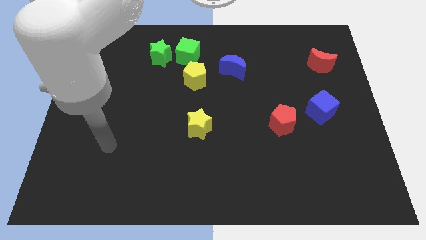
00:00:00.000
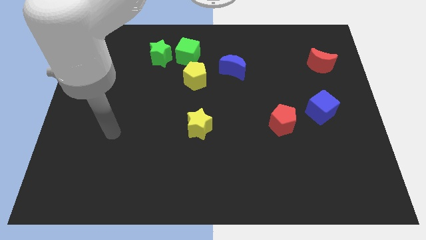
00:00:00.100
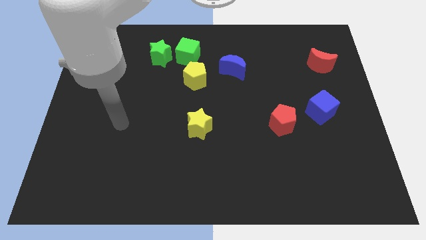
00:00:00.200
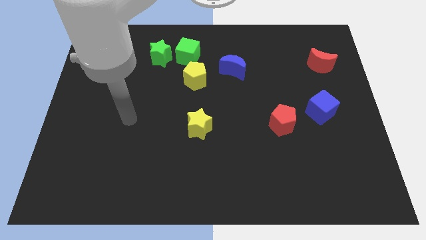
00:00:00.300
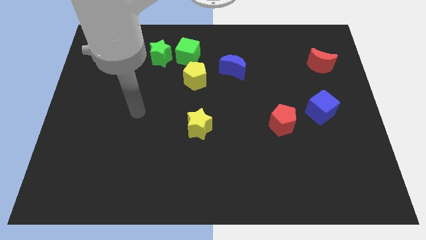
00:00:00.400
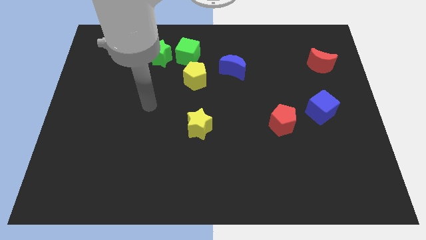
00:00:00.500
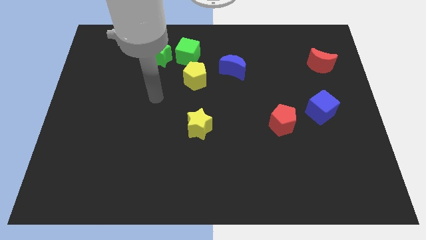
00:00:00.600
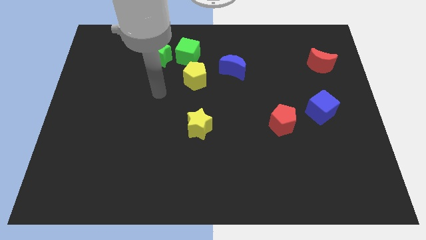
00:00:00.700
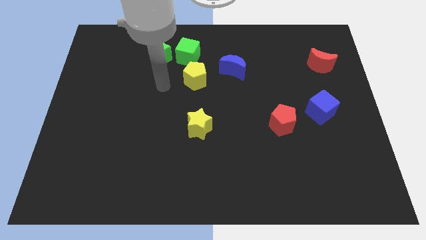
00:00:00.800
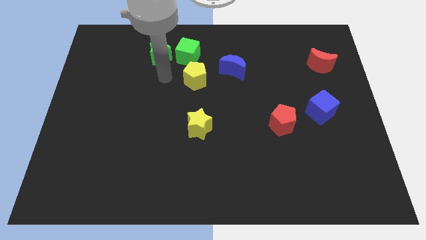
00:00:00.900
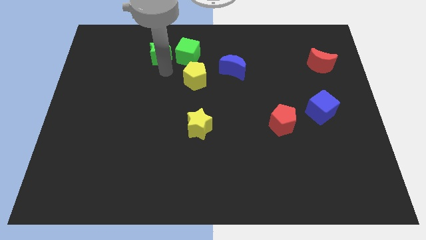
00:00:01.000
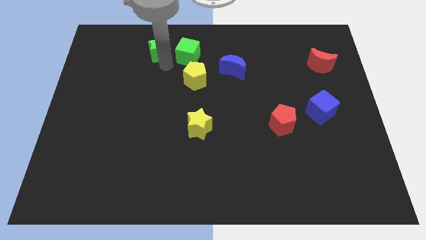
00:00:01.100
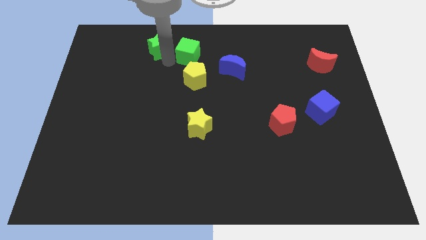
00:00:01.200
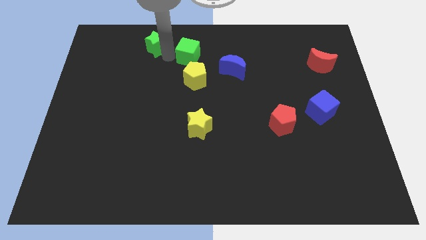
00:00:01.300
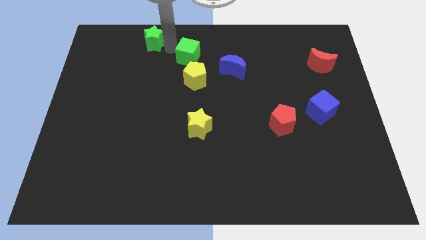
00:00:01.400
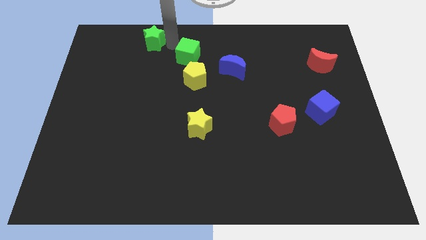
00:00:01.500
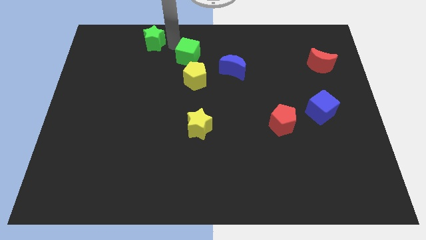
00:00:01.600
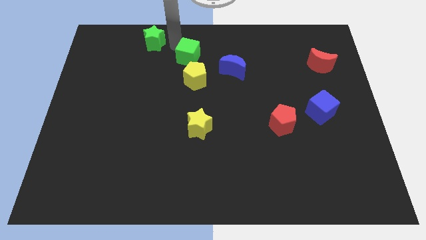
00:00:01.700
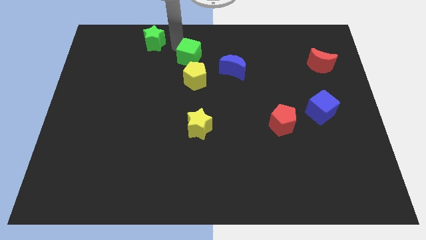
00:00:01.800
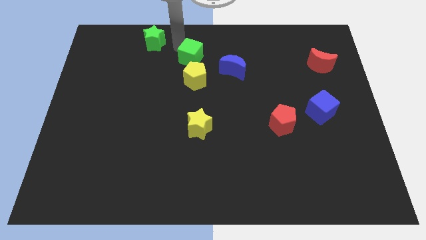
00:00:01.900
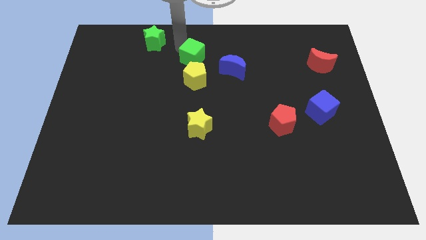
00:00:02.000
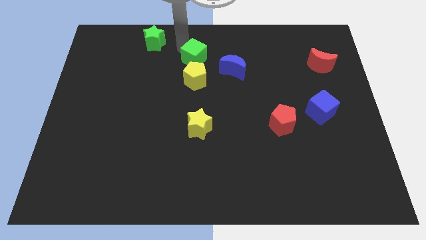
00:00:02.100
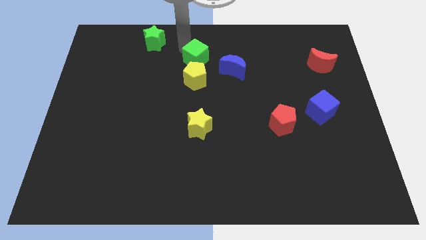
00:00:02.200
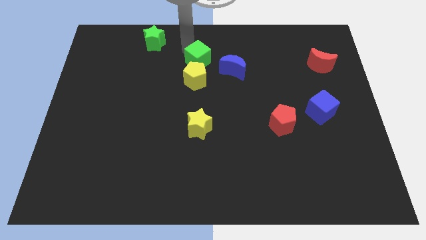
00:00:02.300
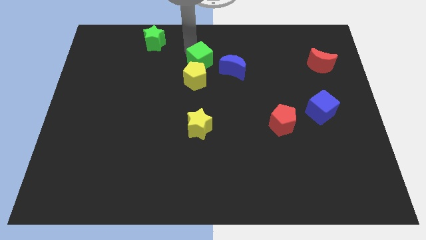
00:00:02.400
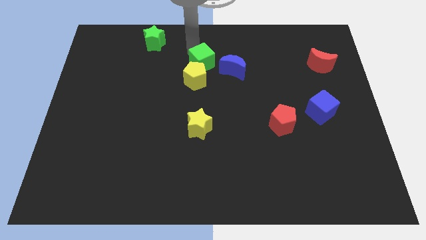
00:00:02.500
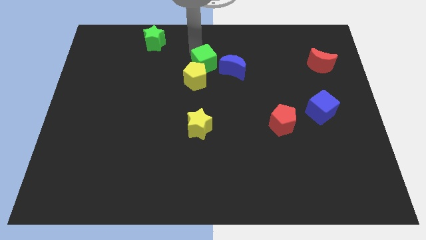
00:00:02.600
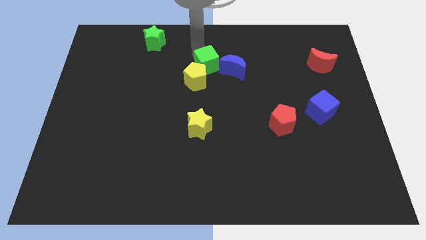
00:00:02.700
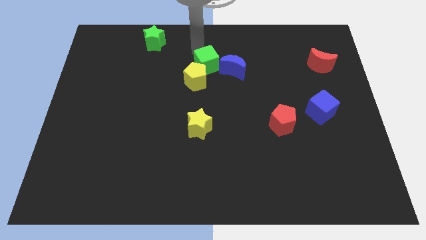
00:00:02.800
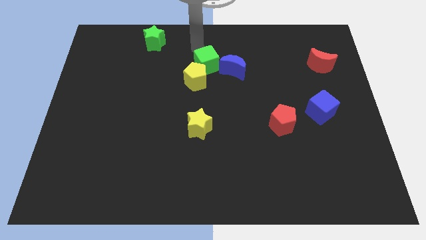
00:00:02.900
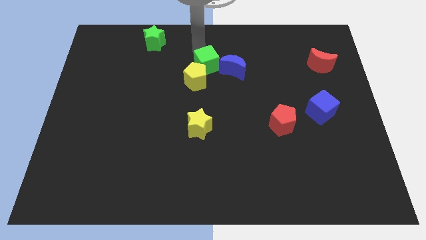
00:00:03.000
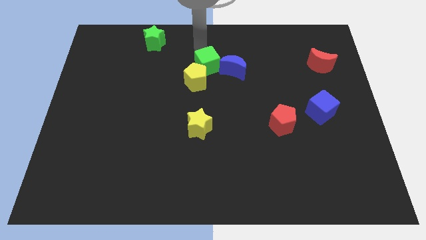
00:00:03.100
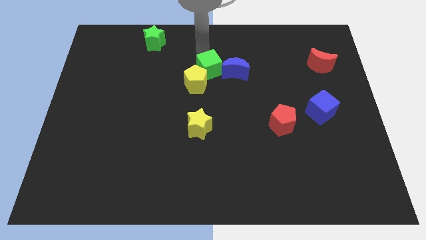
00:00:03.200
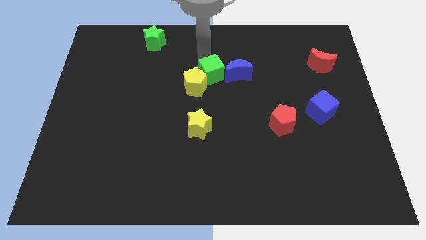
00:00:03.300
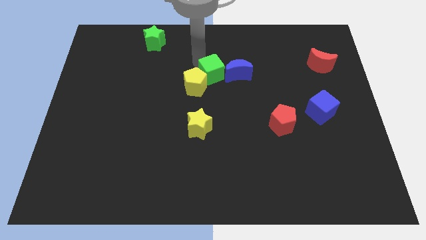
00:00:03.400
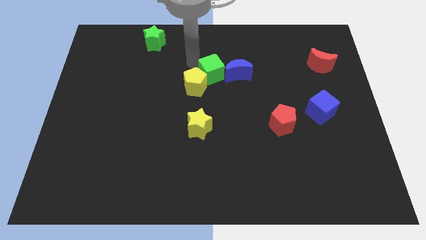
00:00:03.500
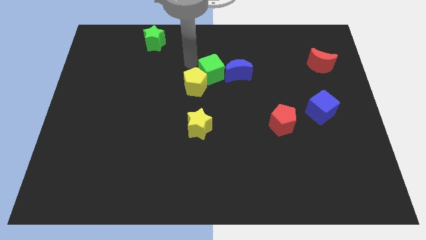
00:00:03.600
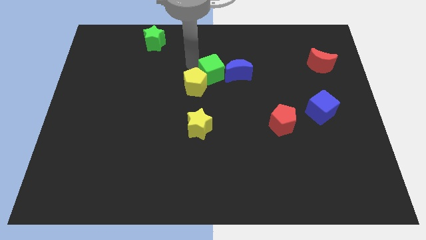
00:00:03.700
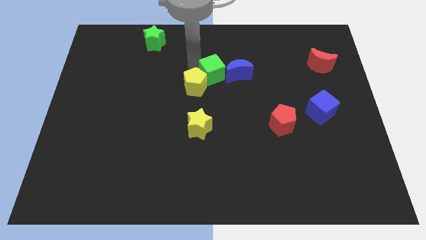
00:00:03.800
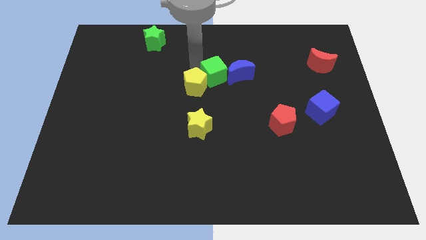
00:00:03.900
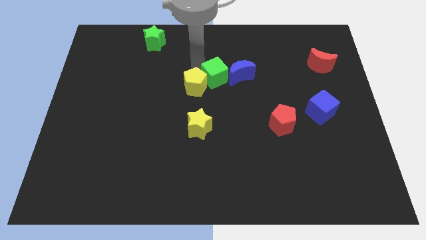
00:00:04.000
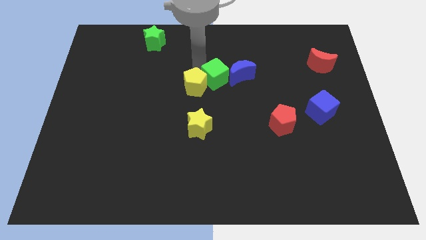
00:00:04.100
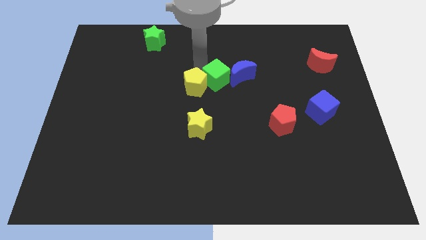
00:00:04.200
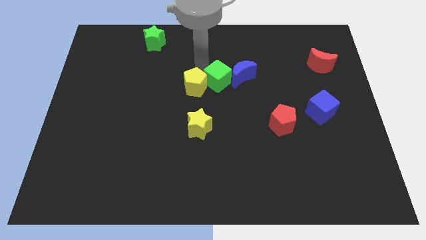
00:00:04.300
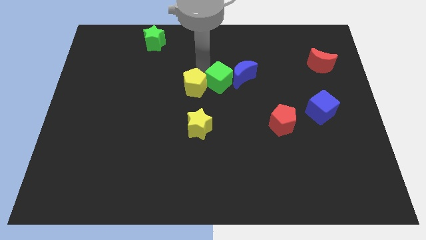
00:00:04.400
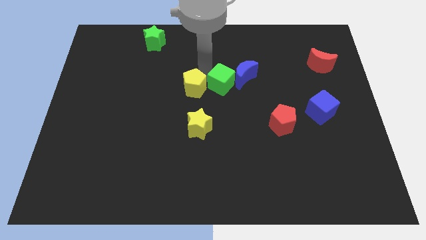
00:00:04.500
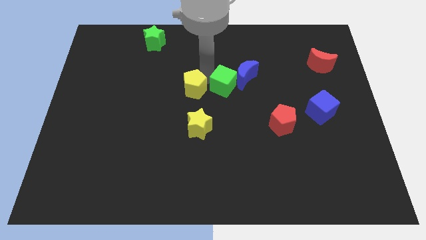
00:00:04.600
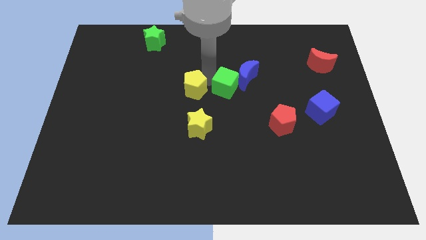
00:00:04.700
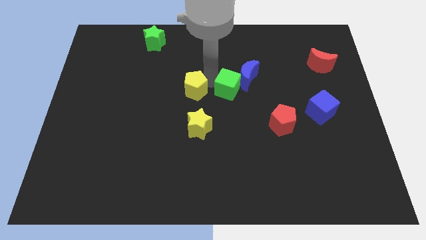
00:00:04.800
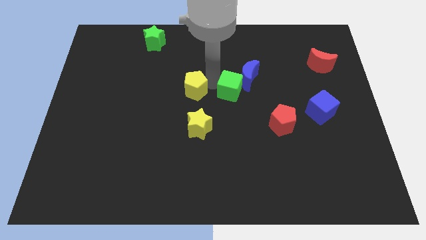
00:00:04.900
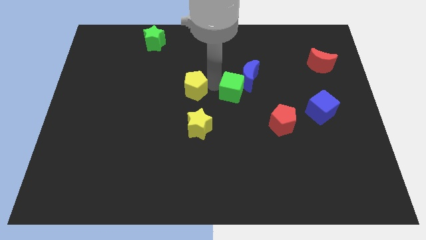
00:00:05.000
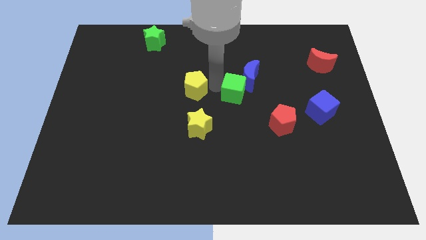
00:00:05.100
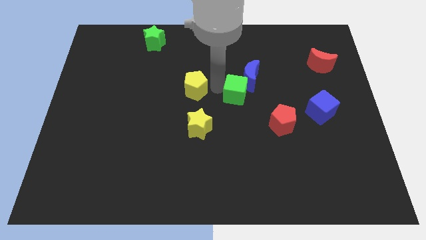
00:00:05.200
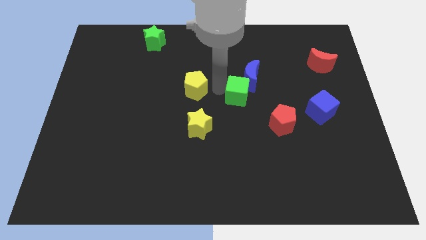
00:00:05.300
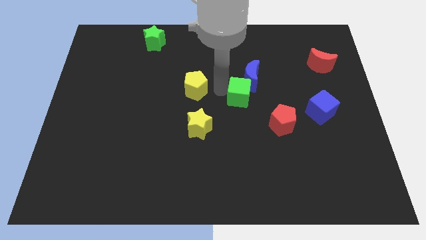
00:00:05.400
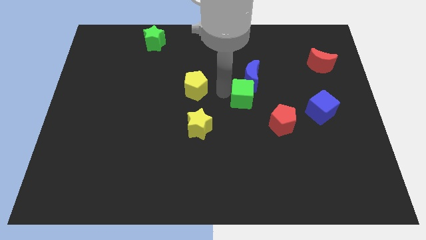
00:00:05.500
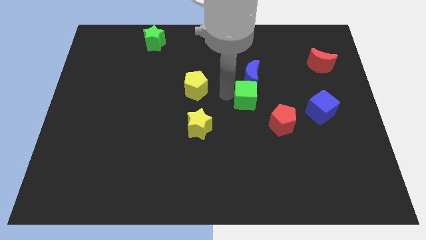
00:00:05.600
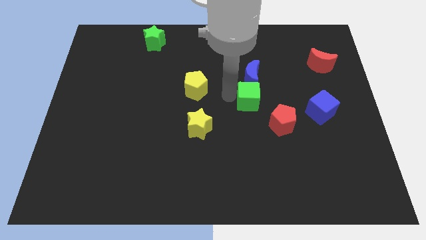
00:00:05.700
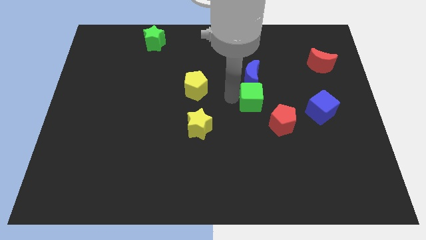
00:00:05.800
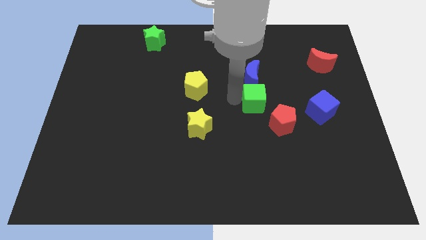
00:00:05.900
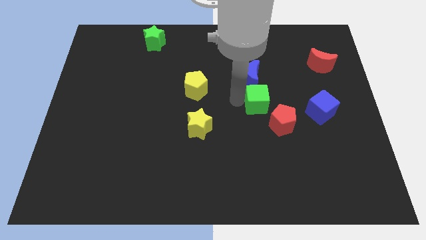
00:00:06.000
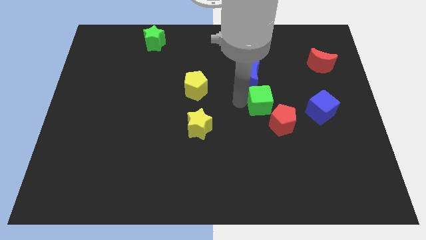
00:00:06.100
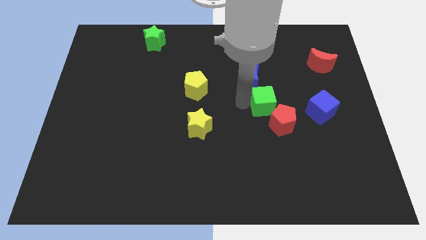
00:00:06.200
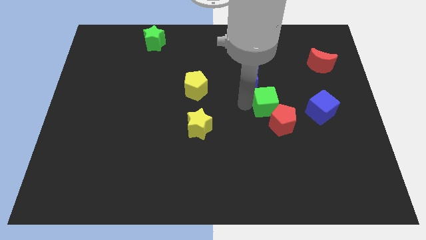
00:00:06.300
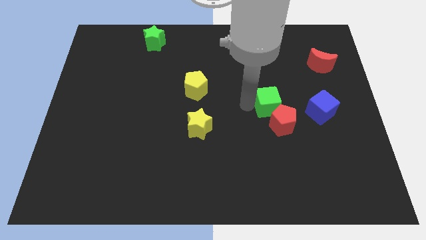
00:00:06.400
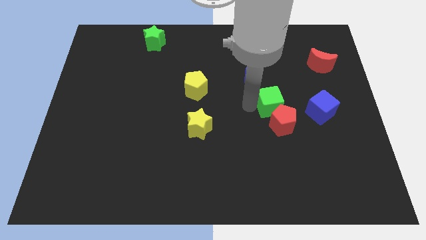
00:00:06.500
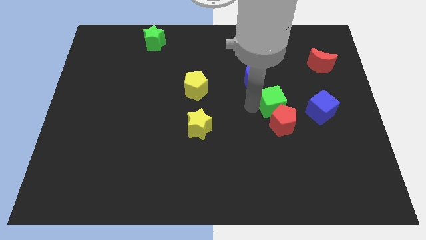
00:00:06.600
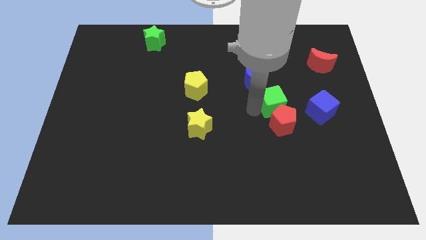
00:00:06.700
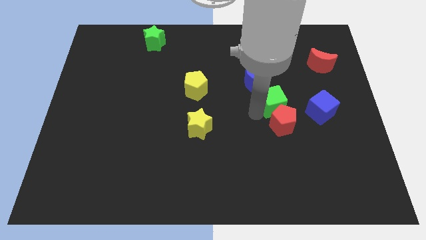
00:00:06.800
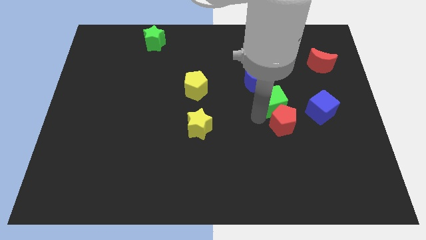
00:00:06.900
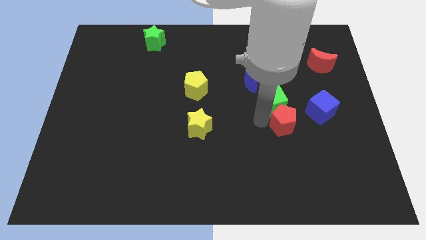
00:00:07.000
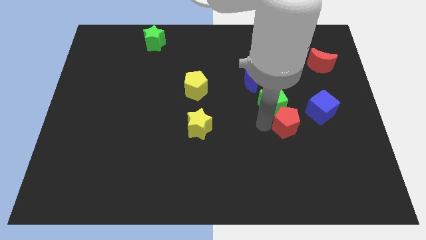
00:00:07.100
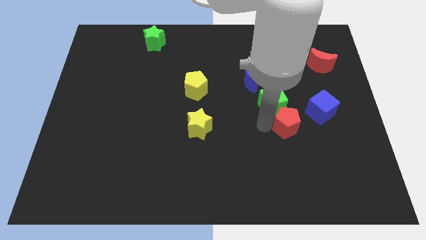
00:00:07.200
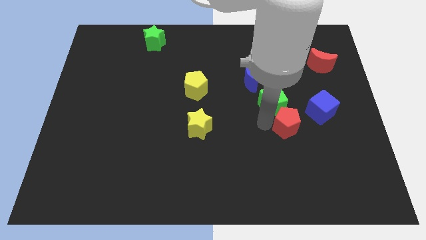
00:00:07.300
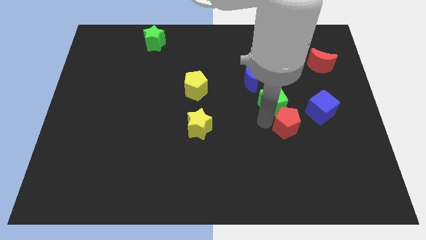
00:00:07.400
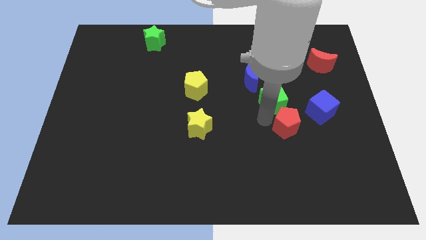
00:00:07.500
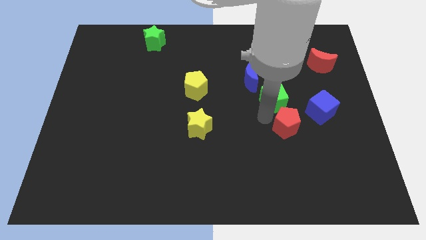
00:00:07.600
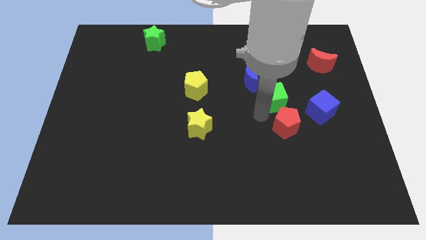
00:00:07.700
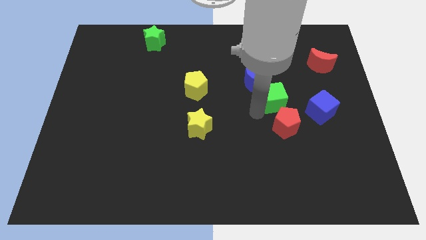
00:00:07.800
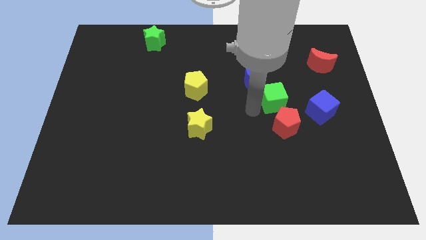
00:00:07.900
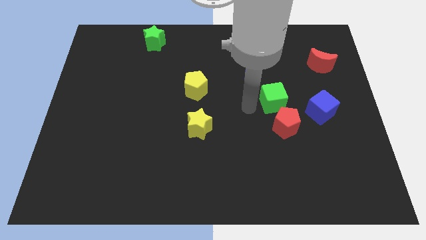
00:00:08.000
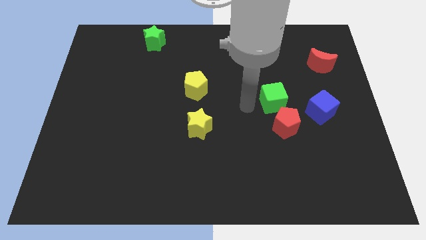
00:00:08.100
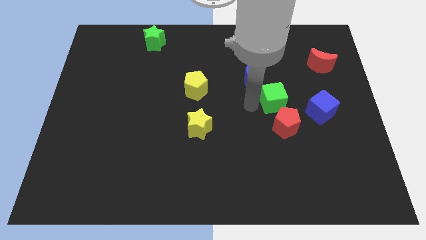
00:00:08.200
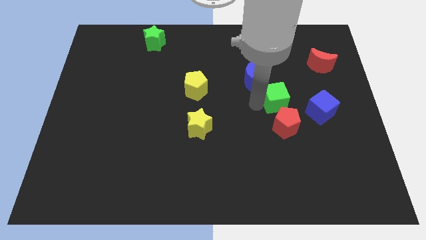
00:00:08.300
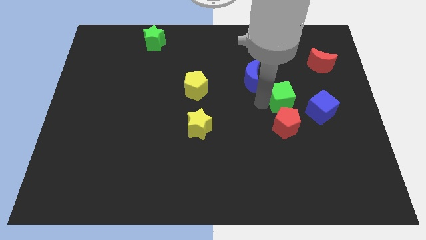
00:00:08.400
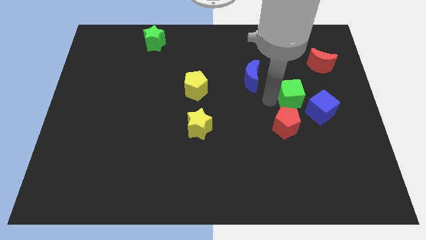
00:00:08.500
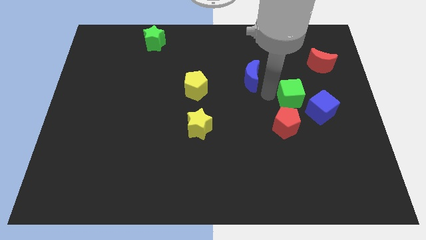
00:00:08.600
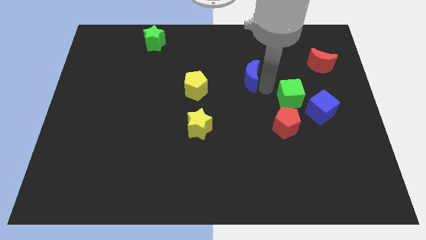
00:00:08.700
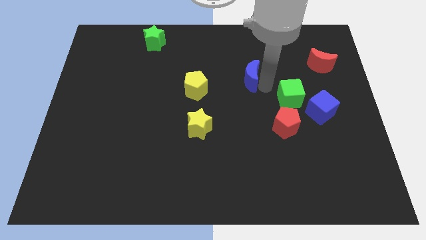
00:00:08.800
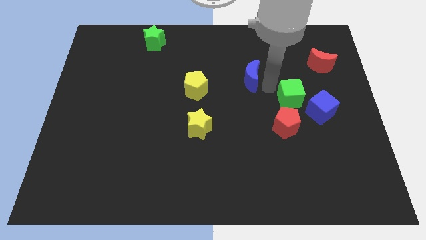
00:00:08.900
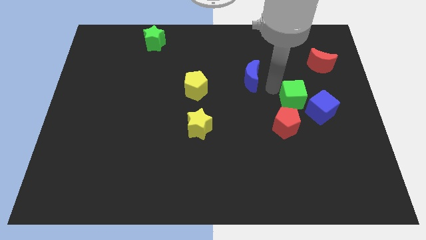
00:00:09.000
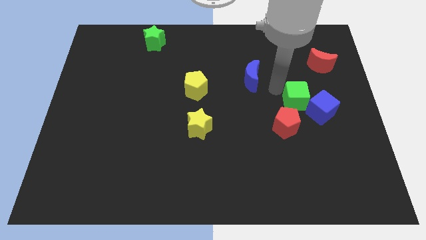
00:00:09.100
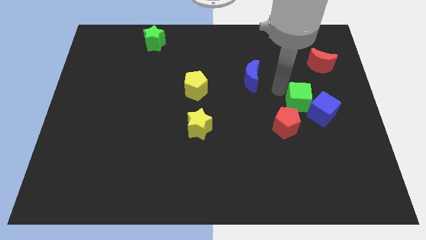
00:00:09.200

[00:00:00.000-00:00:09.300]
push the green cube towards the blue cube
